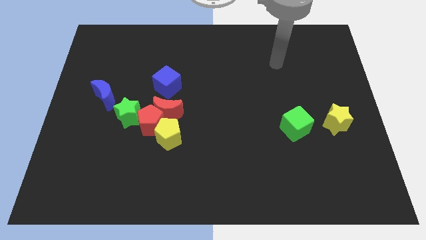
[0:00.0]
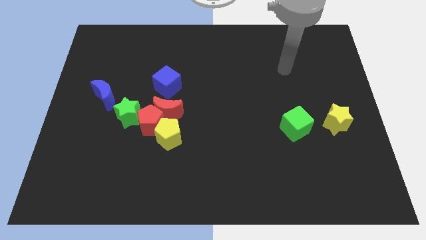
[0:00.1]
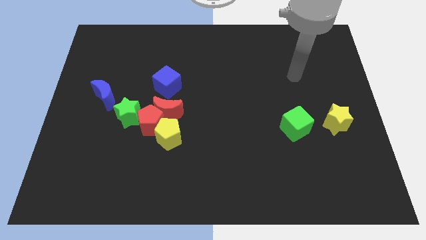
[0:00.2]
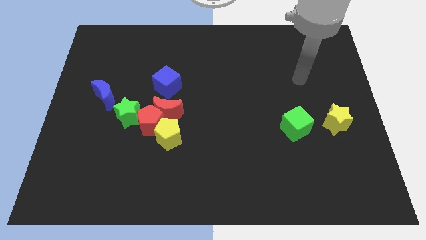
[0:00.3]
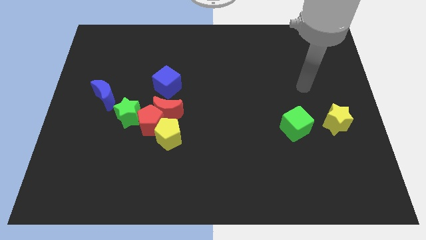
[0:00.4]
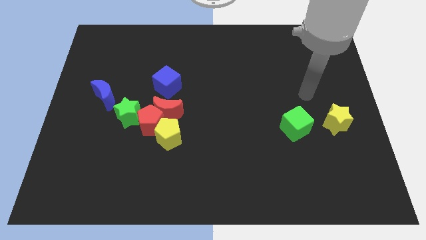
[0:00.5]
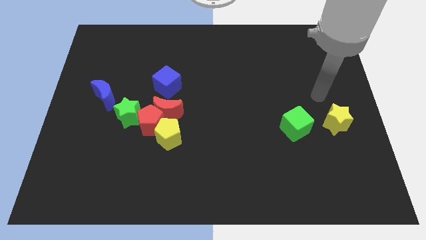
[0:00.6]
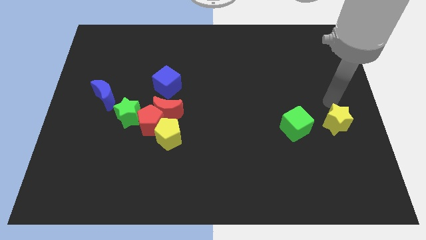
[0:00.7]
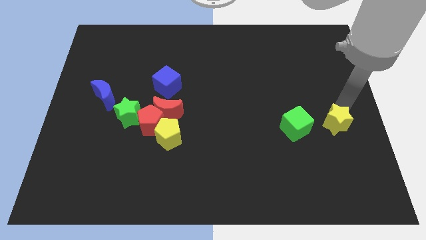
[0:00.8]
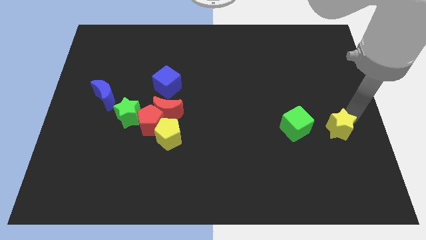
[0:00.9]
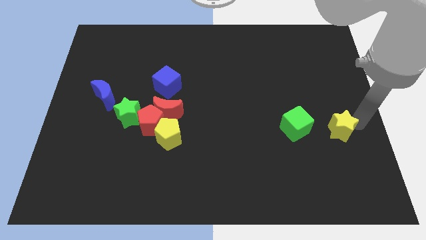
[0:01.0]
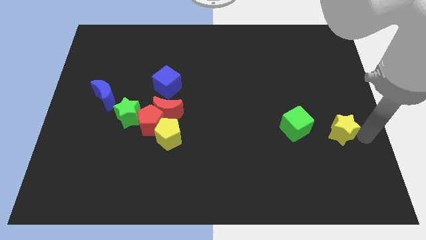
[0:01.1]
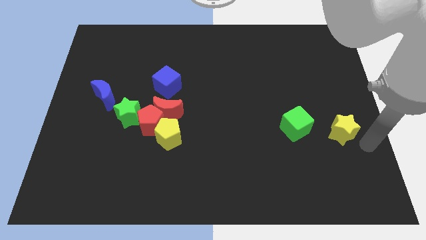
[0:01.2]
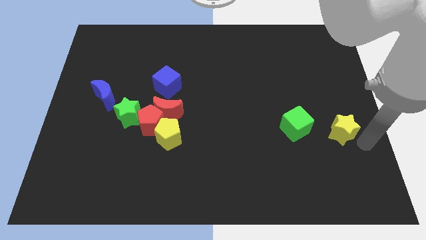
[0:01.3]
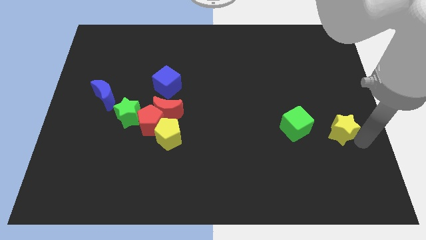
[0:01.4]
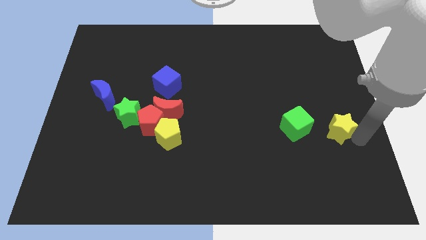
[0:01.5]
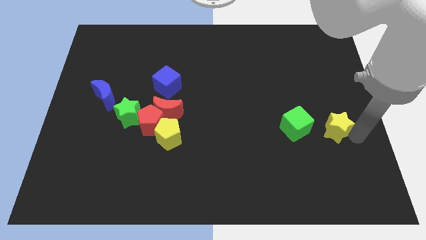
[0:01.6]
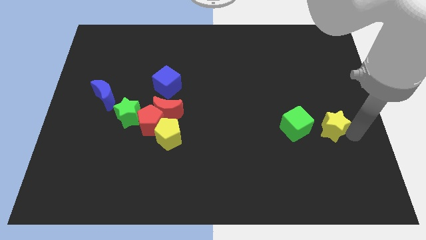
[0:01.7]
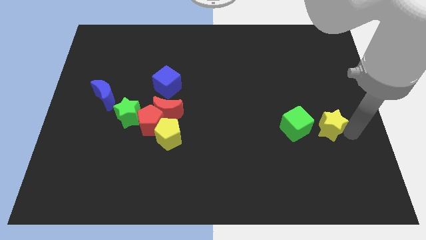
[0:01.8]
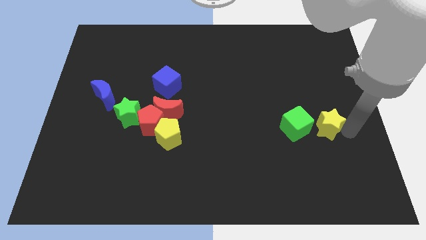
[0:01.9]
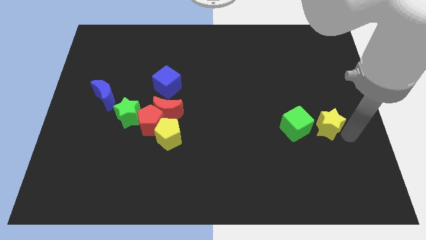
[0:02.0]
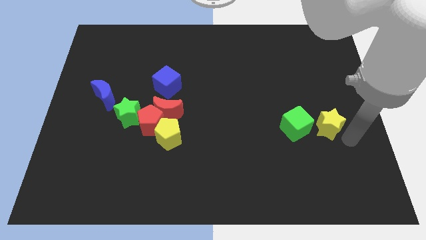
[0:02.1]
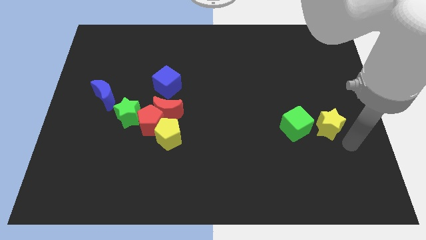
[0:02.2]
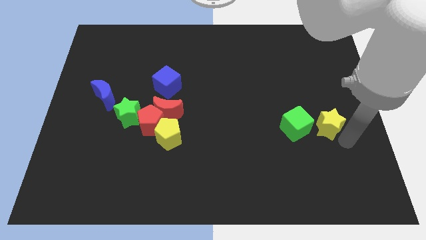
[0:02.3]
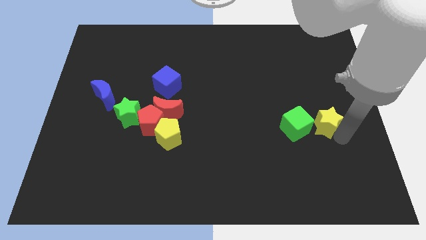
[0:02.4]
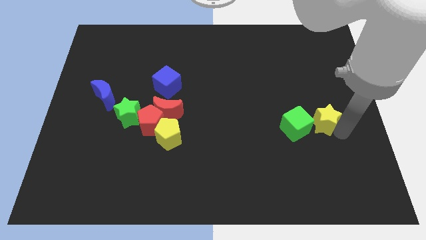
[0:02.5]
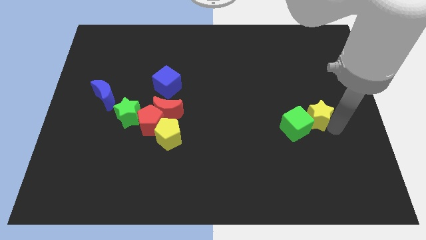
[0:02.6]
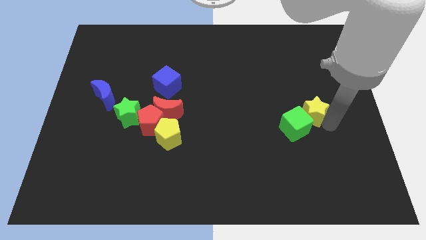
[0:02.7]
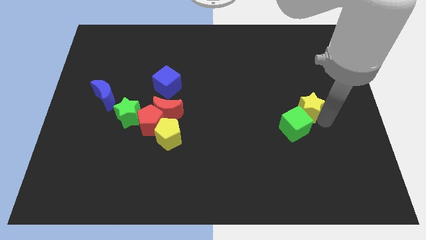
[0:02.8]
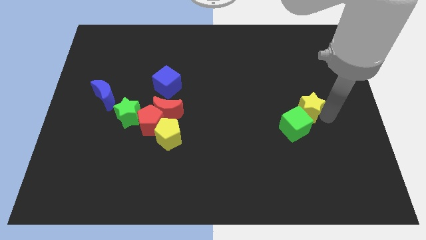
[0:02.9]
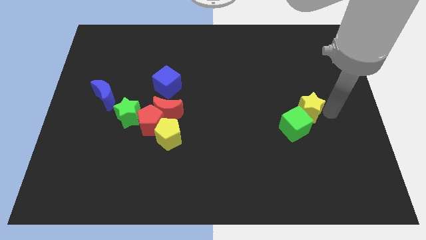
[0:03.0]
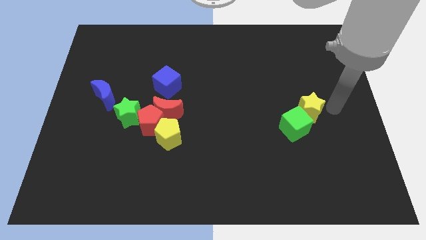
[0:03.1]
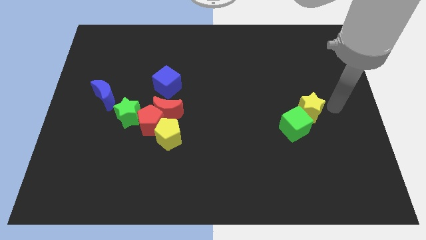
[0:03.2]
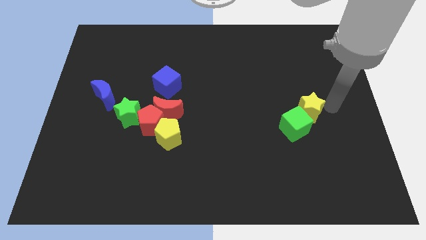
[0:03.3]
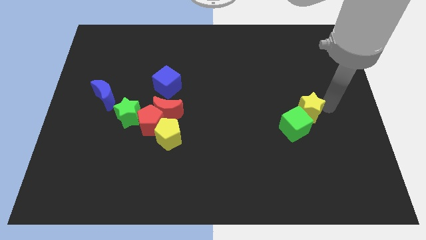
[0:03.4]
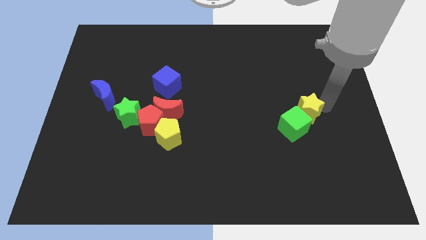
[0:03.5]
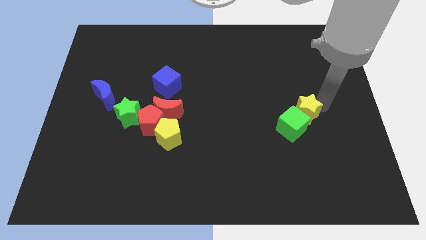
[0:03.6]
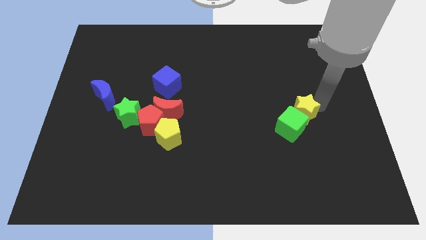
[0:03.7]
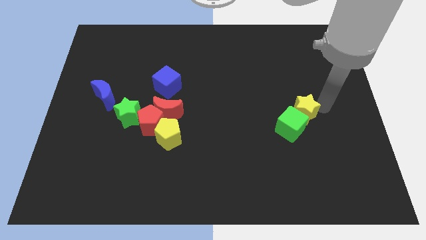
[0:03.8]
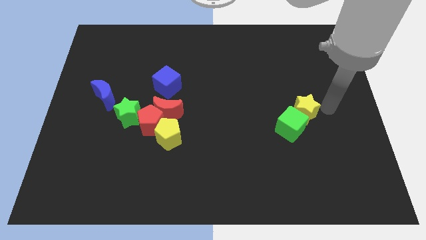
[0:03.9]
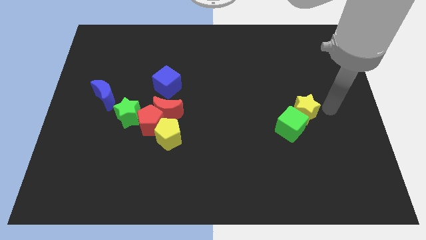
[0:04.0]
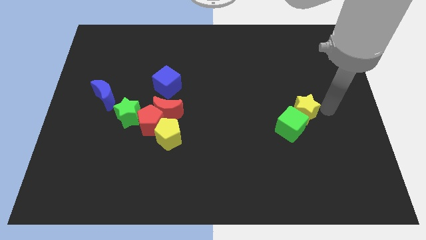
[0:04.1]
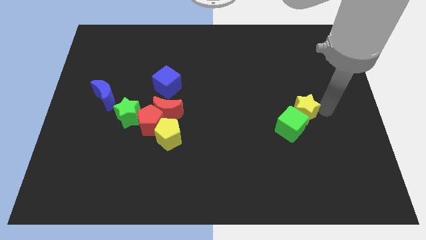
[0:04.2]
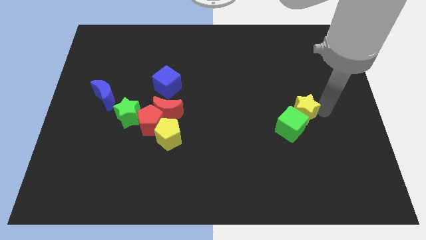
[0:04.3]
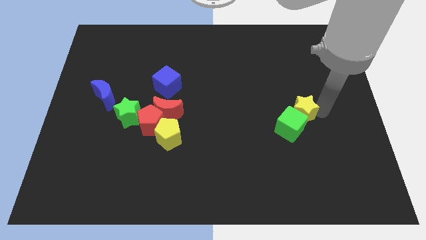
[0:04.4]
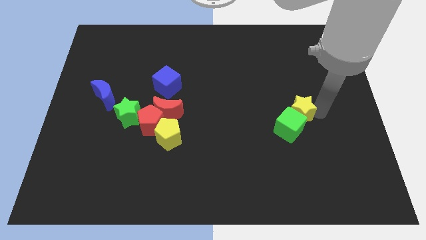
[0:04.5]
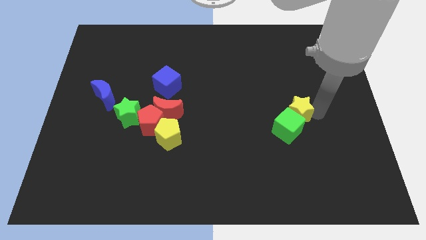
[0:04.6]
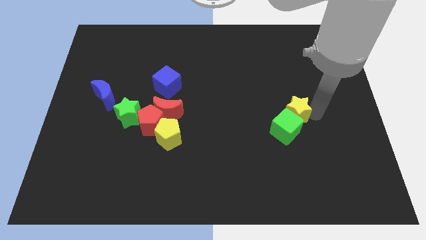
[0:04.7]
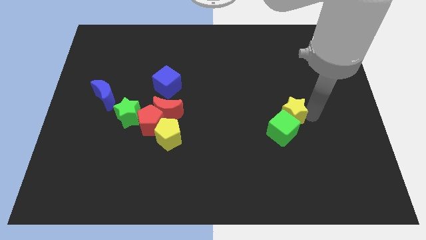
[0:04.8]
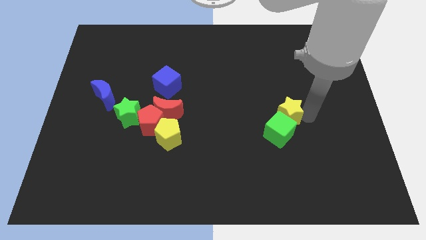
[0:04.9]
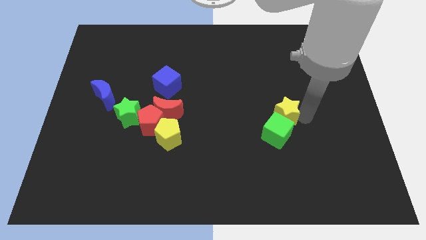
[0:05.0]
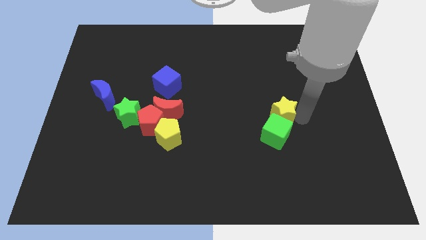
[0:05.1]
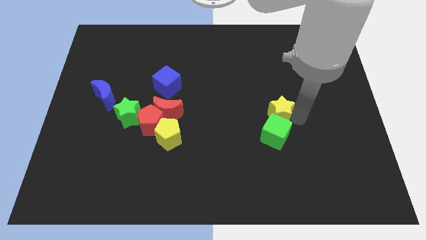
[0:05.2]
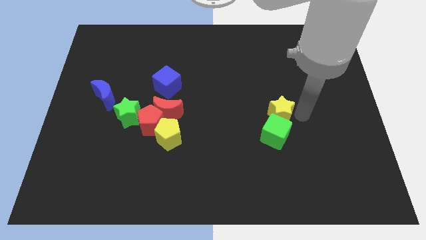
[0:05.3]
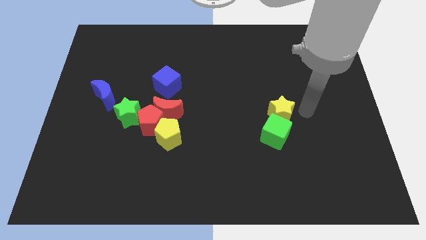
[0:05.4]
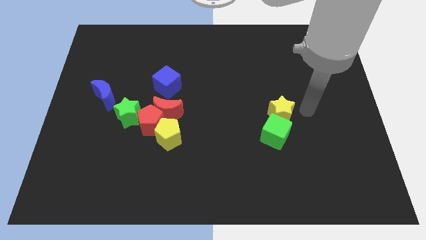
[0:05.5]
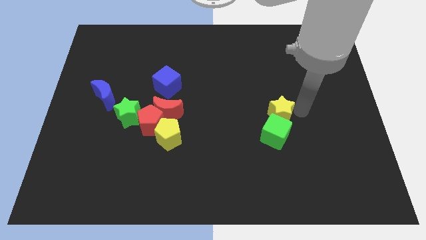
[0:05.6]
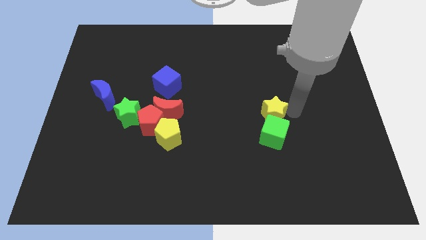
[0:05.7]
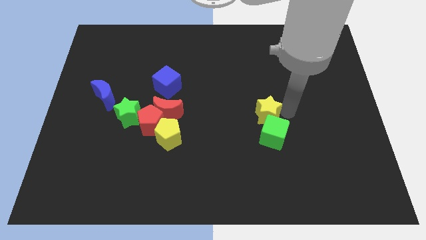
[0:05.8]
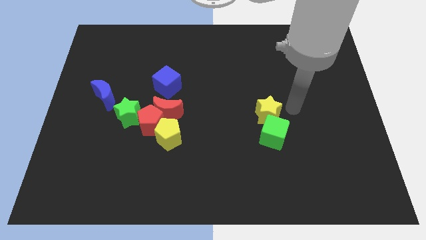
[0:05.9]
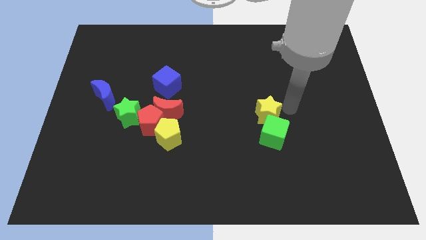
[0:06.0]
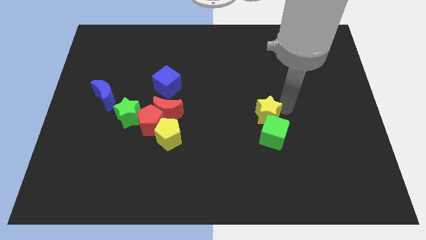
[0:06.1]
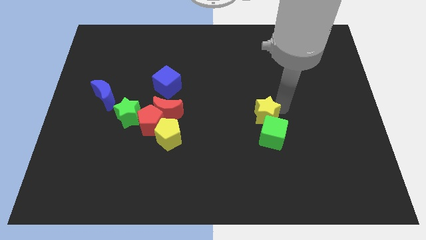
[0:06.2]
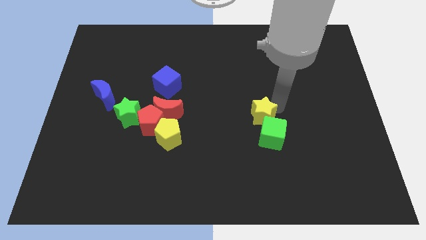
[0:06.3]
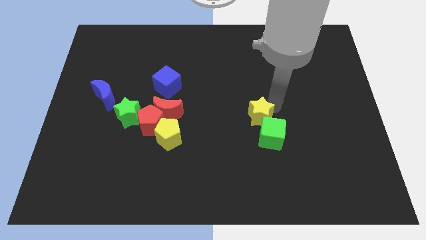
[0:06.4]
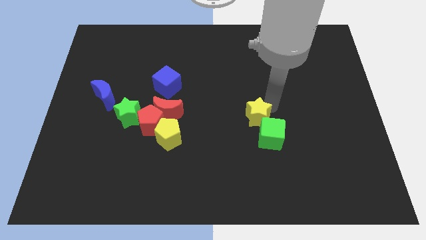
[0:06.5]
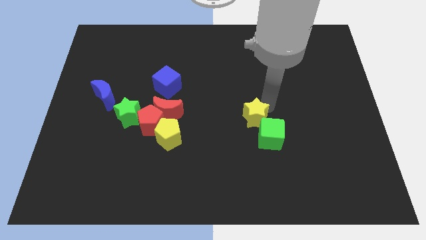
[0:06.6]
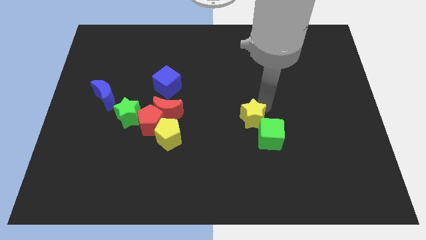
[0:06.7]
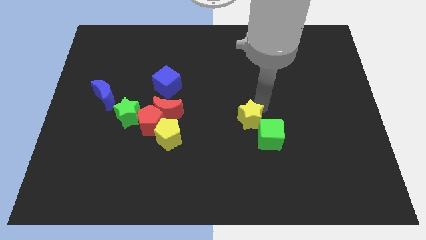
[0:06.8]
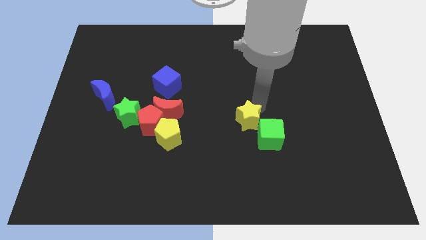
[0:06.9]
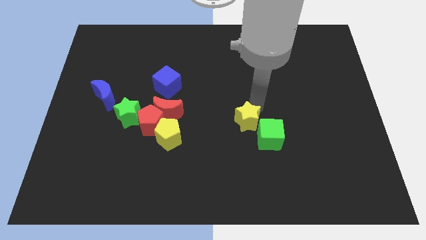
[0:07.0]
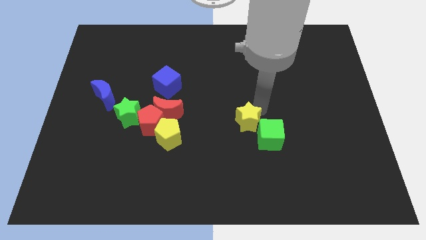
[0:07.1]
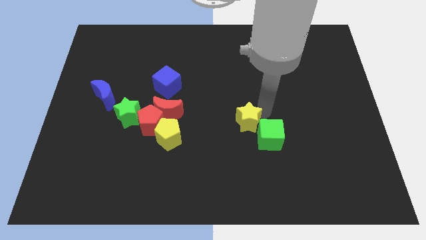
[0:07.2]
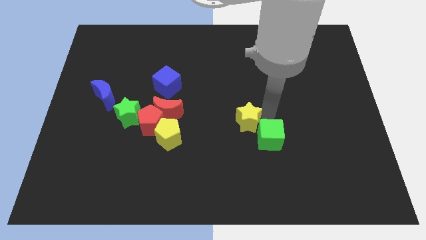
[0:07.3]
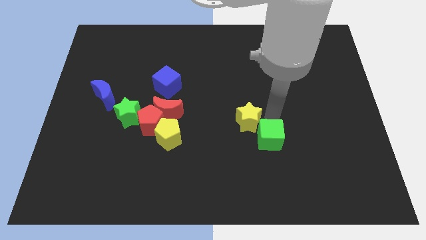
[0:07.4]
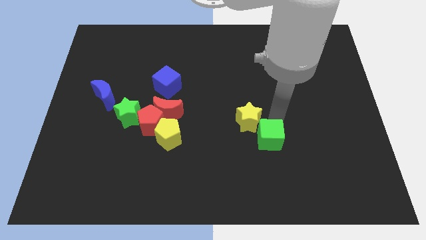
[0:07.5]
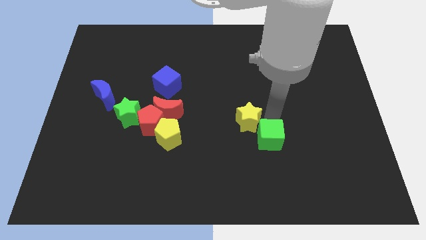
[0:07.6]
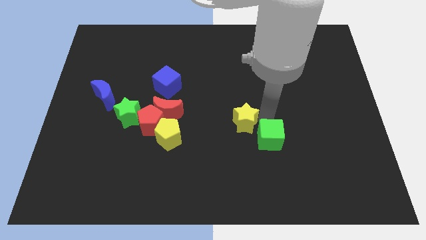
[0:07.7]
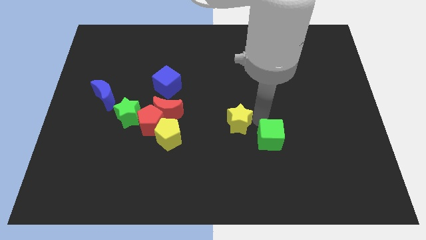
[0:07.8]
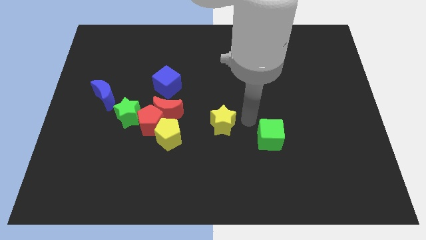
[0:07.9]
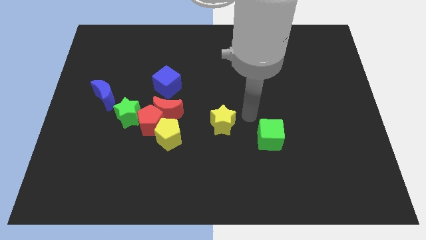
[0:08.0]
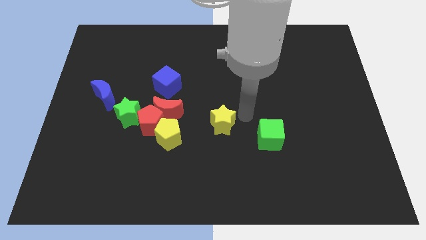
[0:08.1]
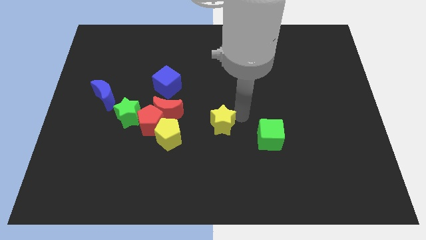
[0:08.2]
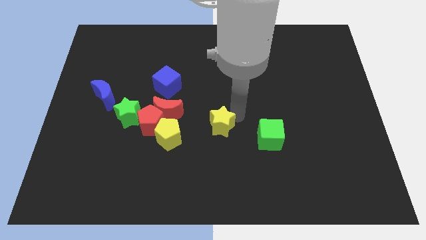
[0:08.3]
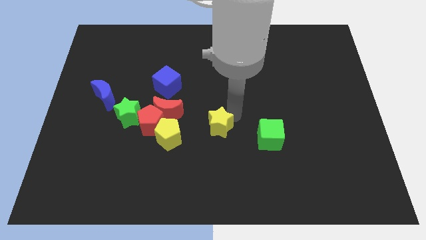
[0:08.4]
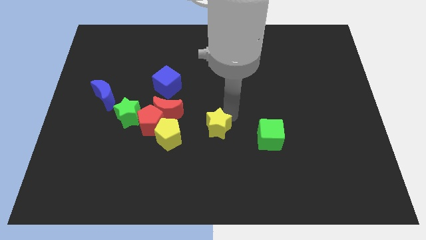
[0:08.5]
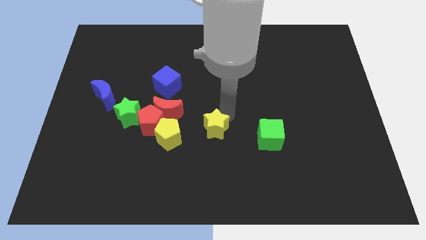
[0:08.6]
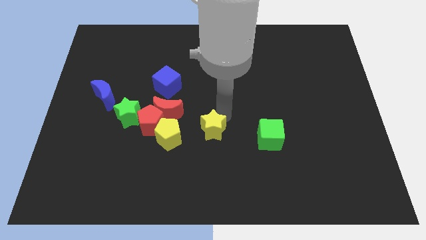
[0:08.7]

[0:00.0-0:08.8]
push the yellow star to the bottom right of the red moon
